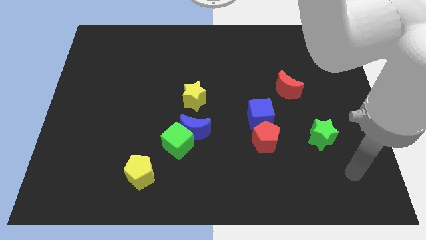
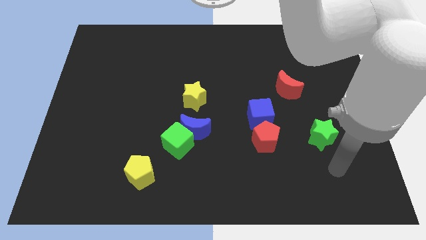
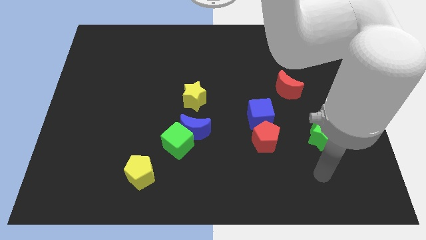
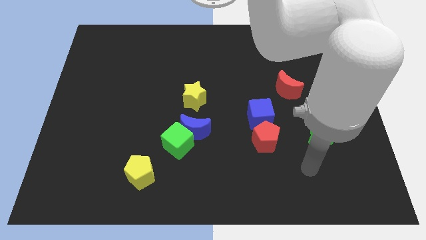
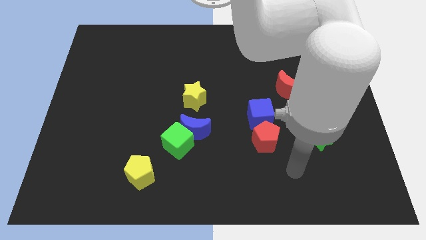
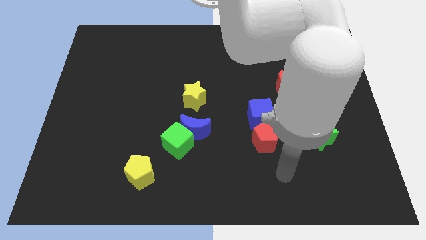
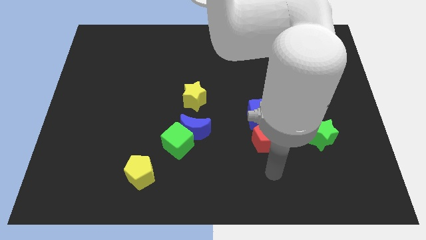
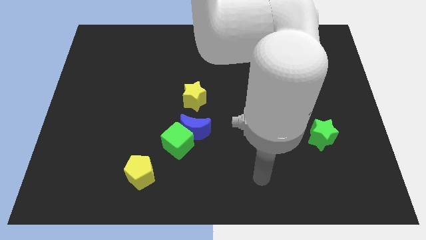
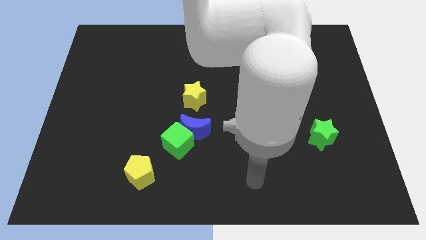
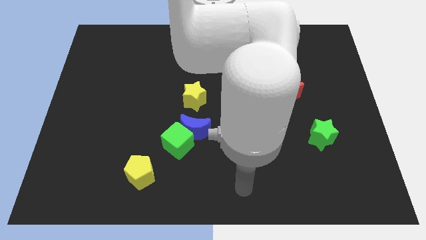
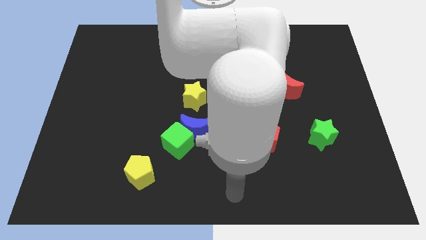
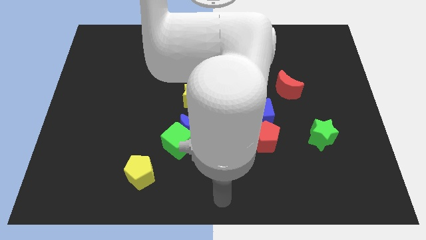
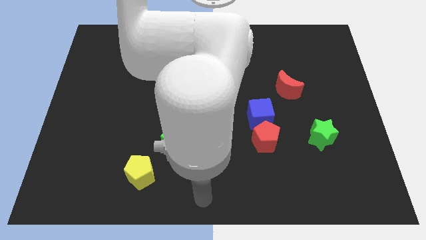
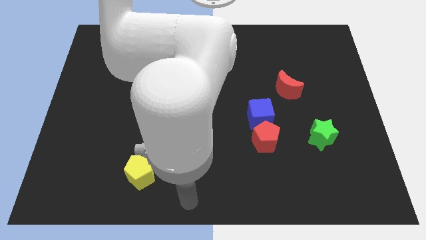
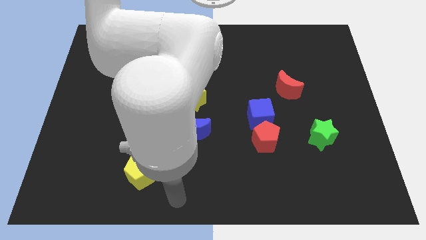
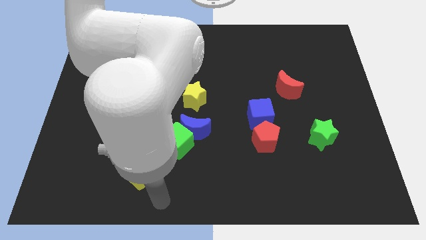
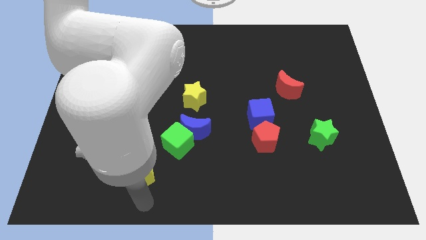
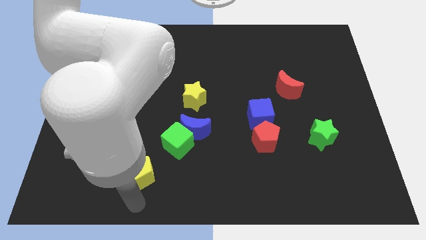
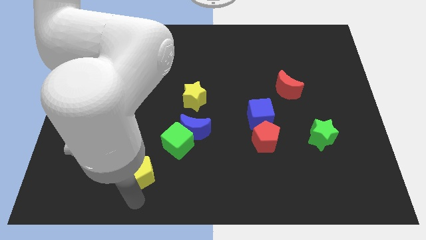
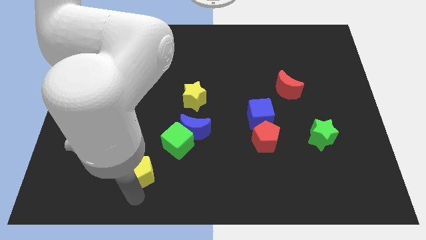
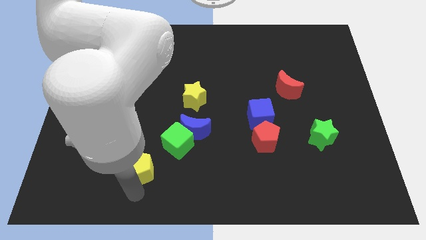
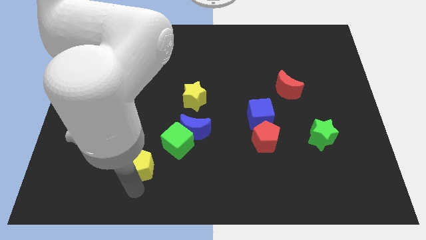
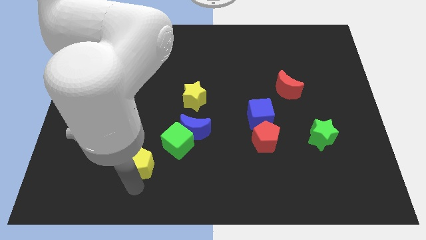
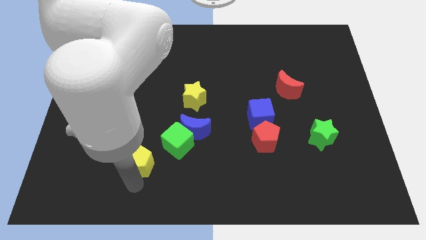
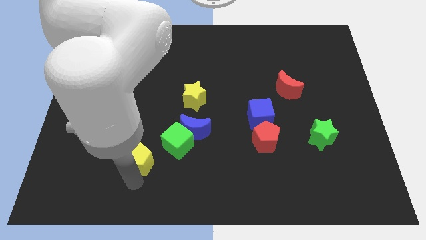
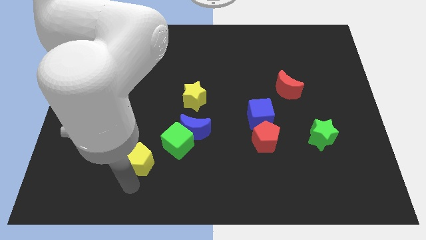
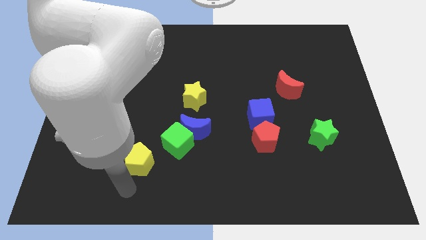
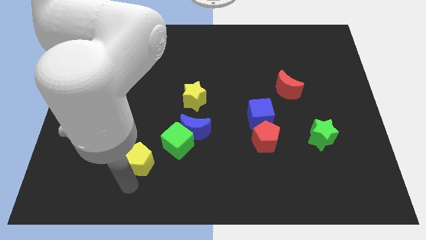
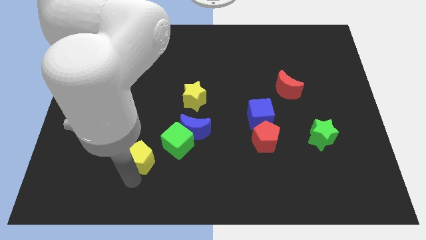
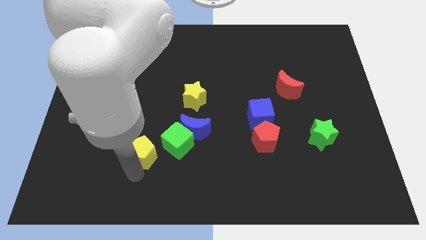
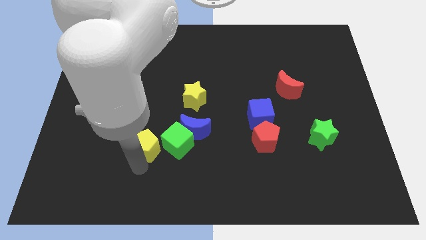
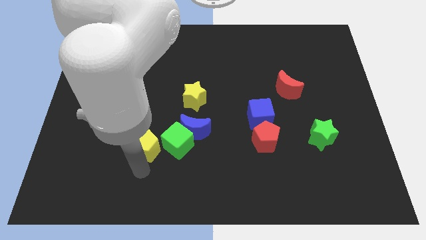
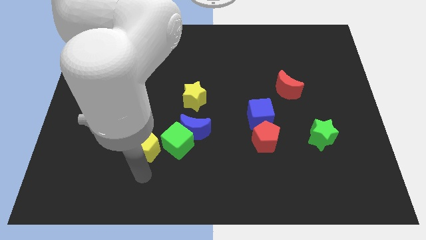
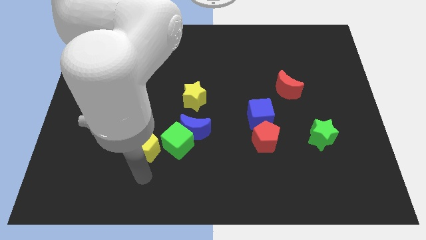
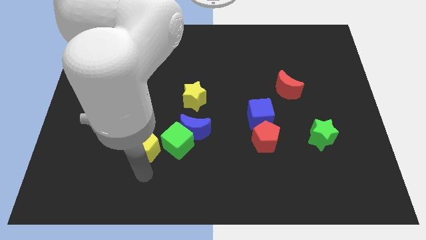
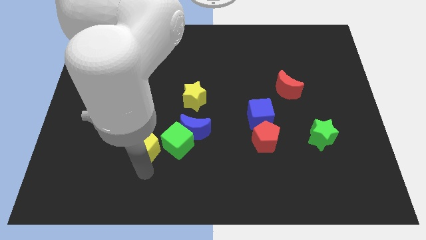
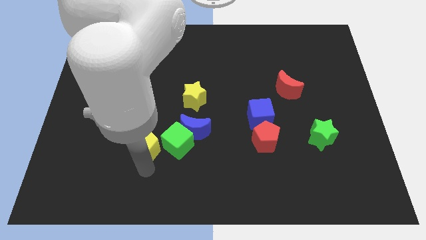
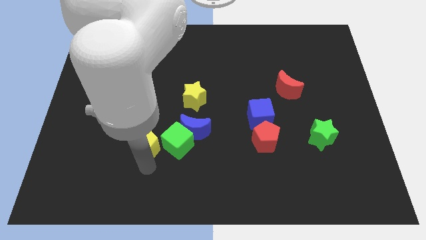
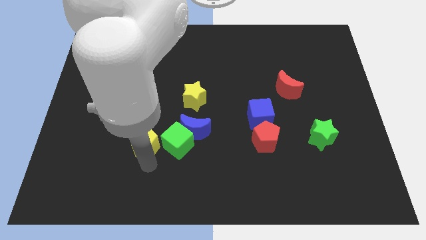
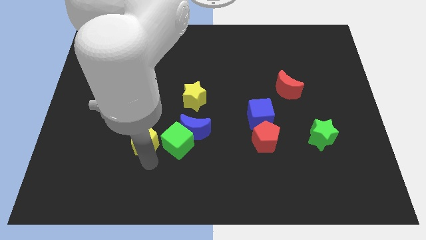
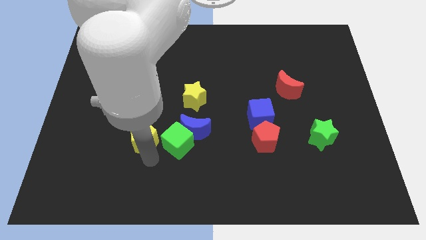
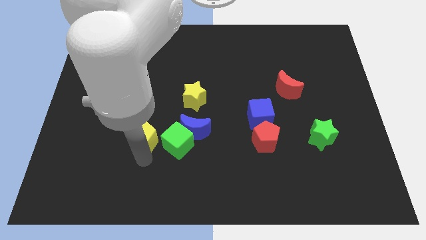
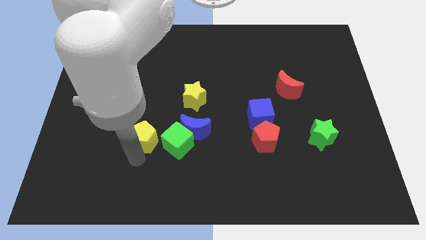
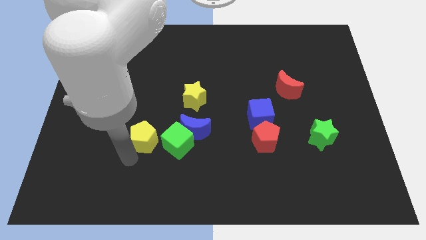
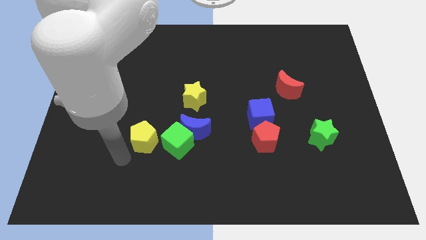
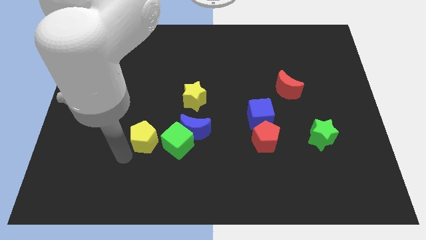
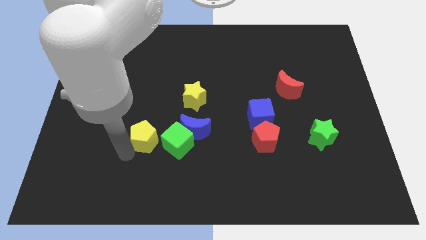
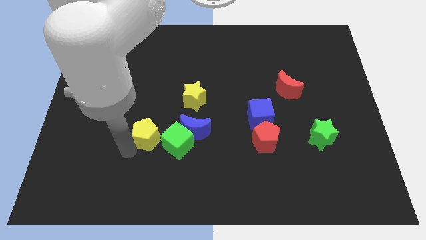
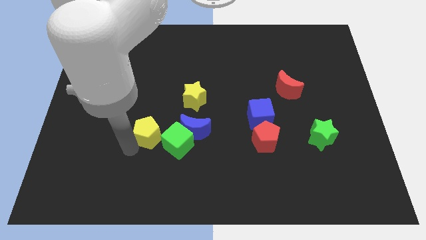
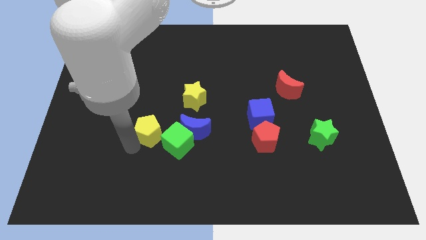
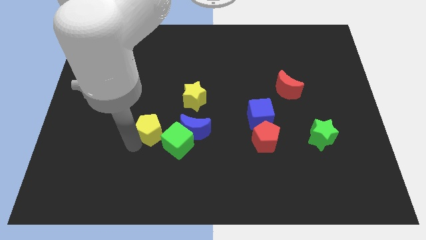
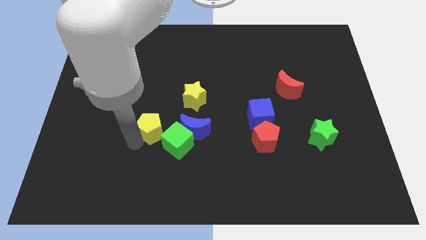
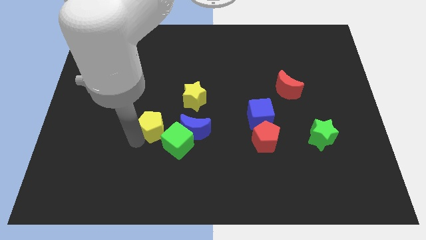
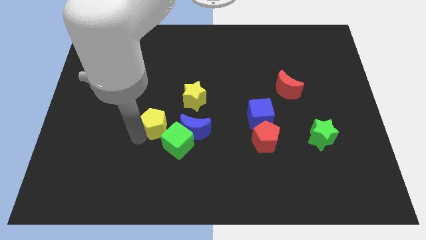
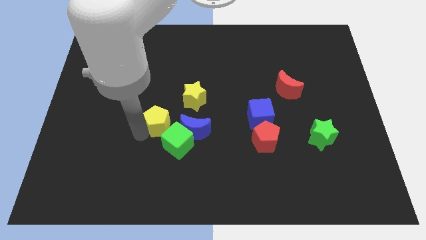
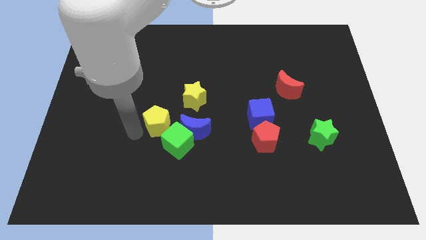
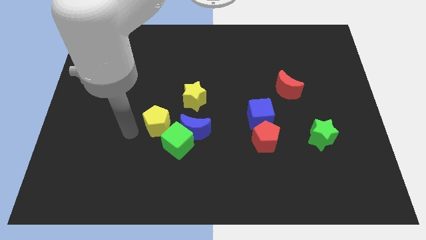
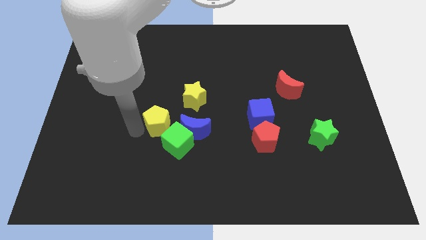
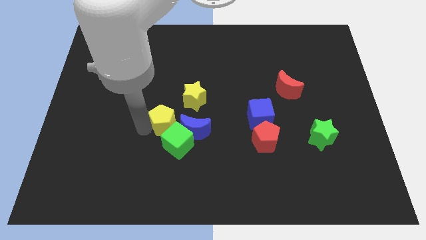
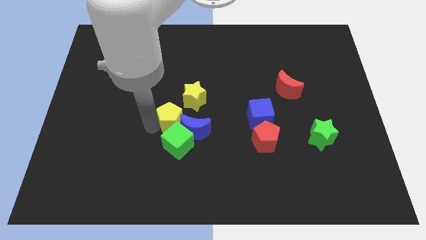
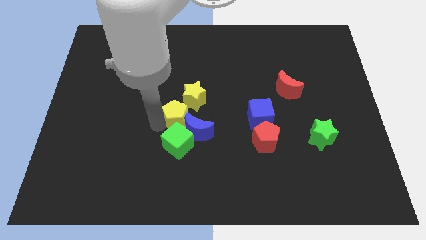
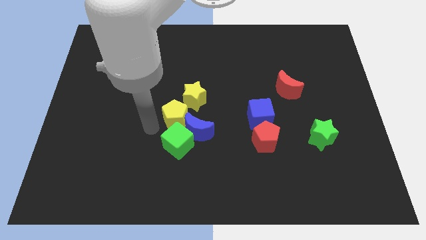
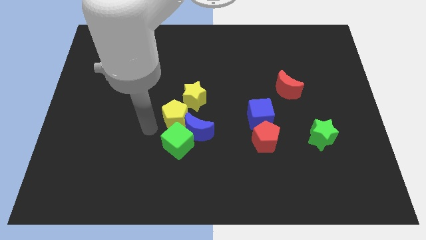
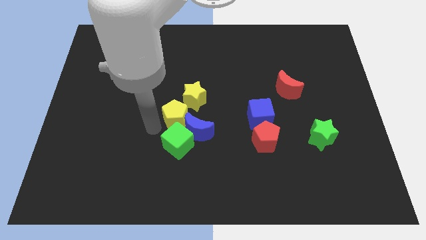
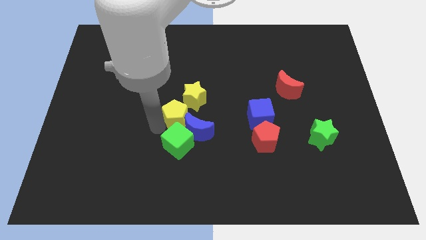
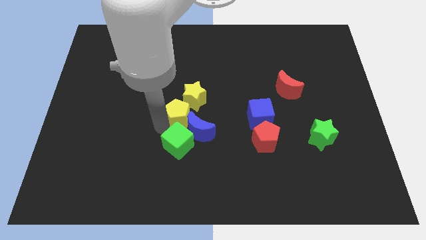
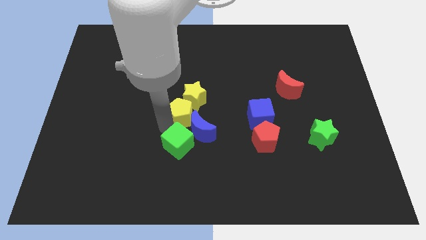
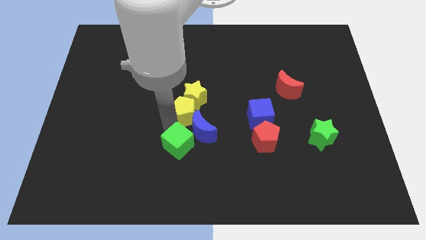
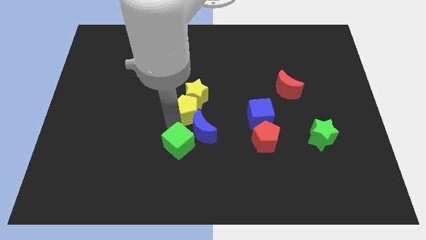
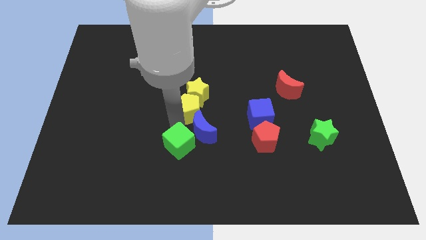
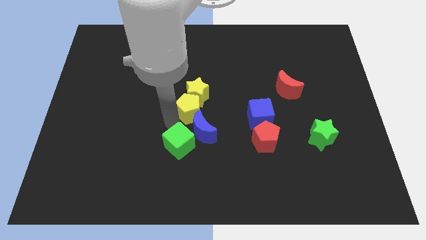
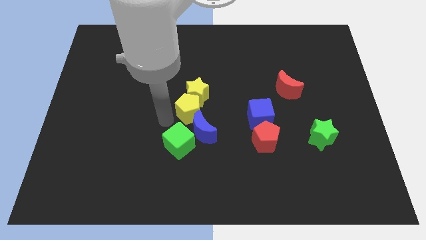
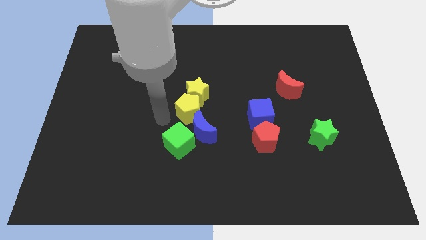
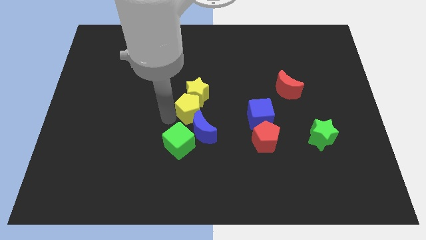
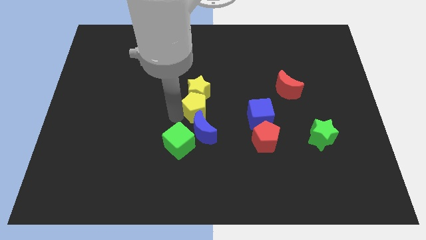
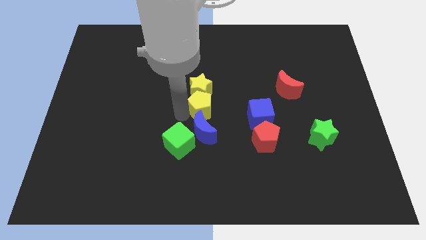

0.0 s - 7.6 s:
slide the yellow pentagon up and right diagonally

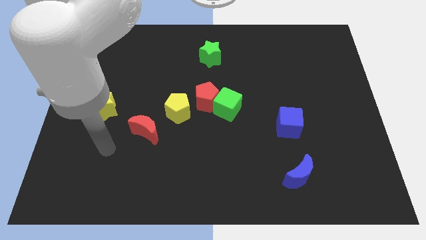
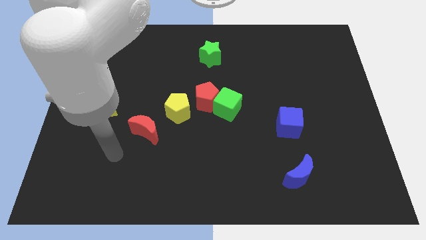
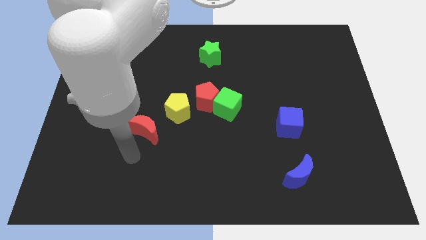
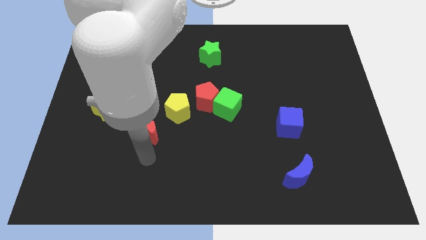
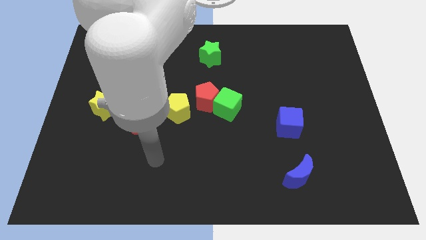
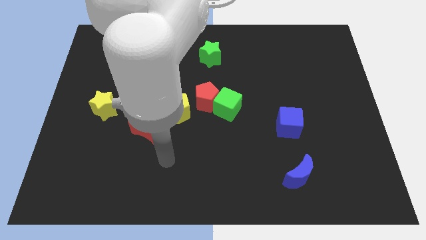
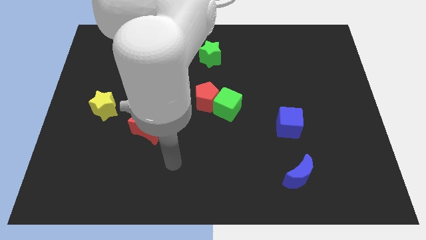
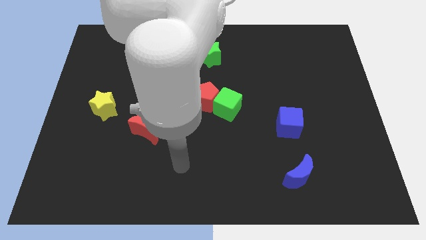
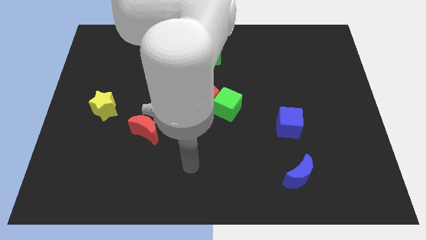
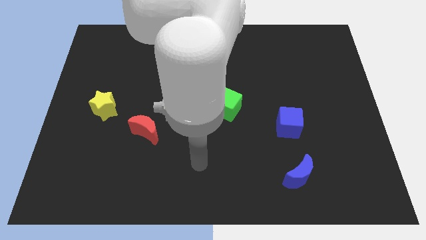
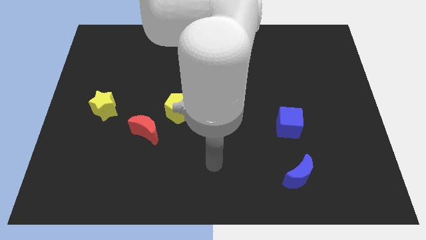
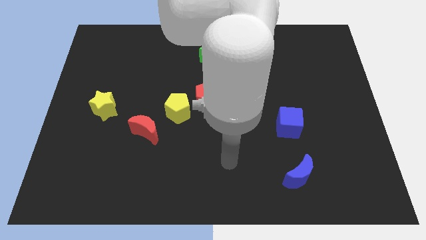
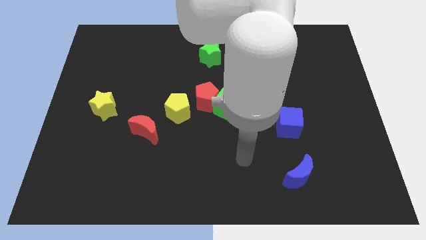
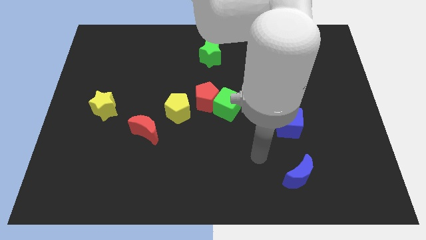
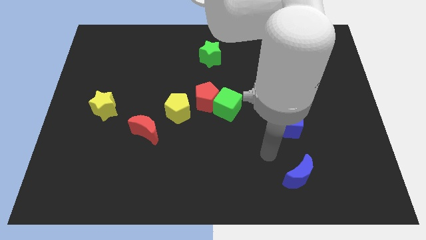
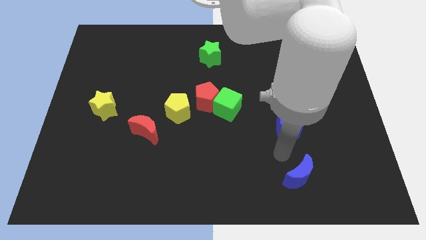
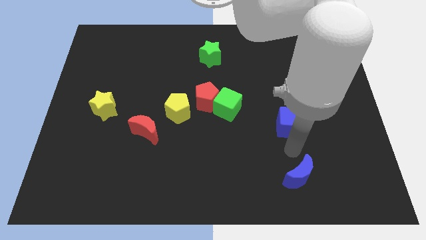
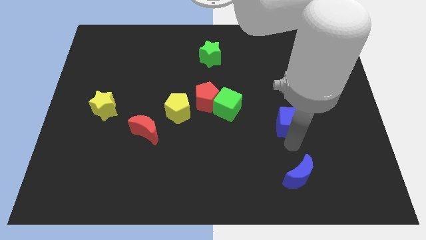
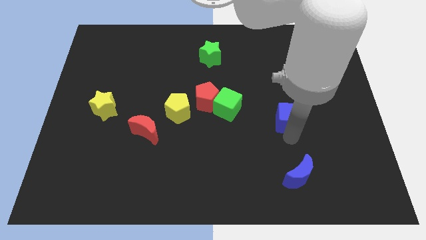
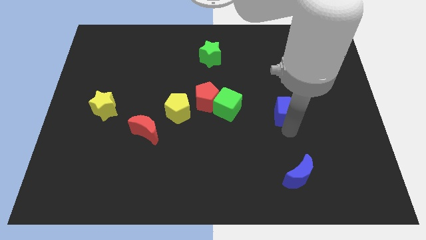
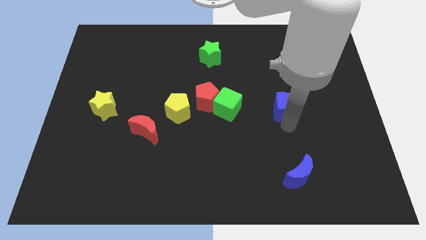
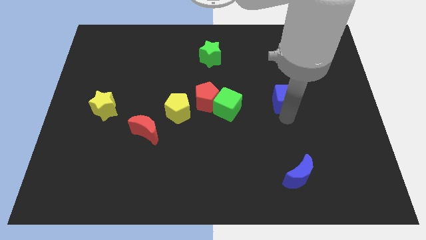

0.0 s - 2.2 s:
move the blue cube a little bit up
